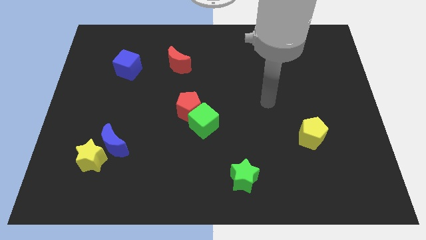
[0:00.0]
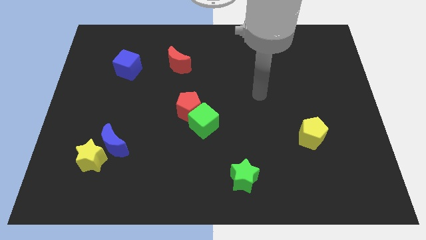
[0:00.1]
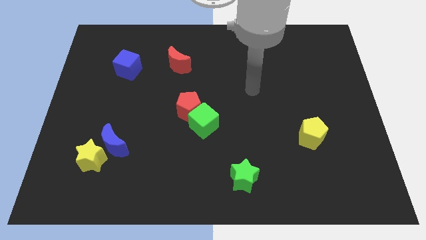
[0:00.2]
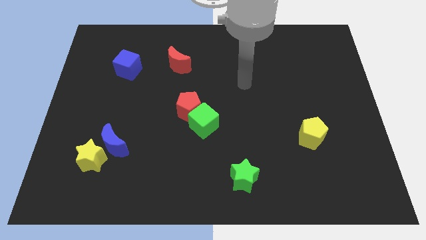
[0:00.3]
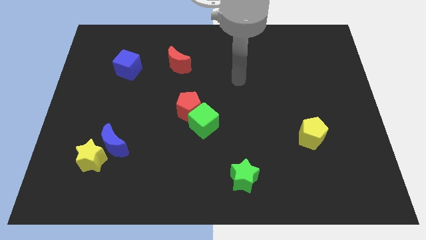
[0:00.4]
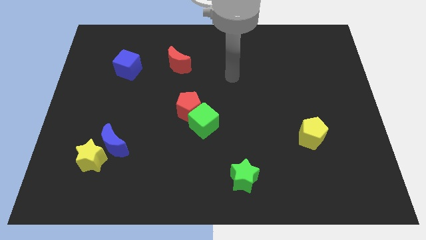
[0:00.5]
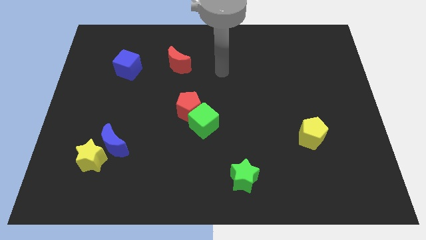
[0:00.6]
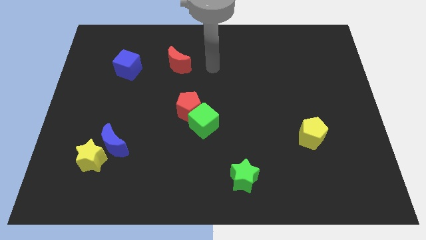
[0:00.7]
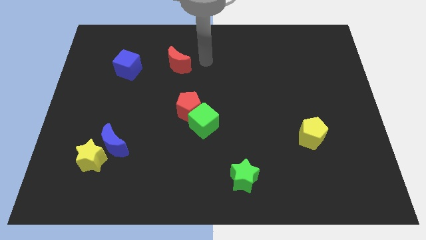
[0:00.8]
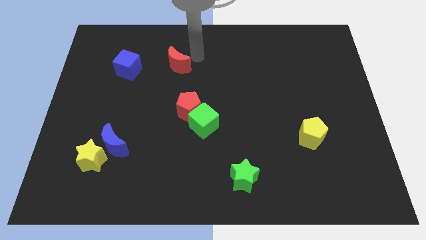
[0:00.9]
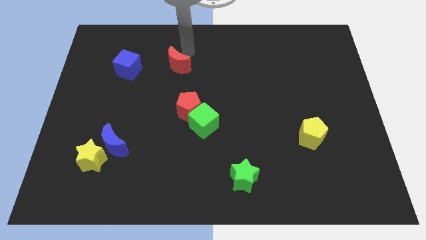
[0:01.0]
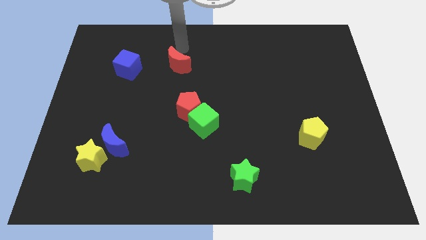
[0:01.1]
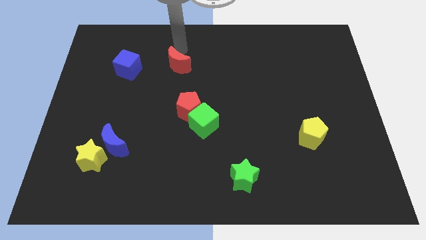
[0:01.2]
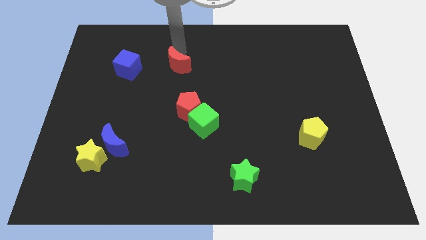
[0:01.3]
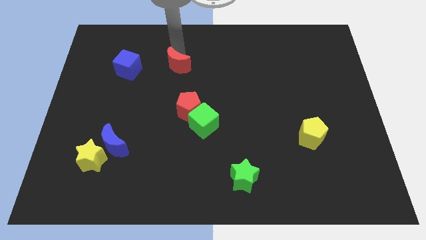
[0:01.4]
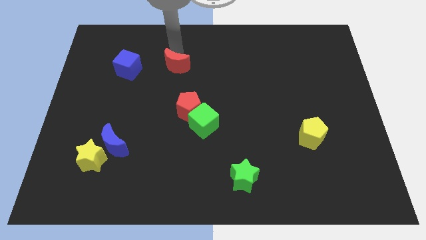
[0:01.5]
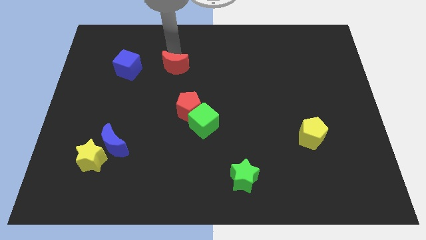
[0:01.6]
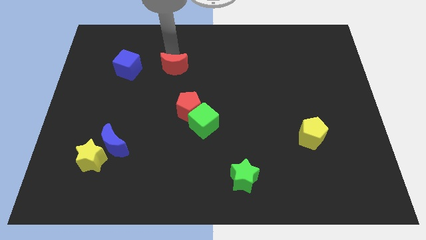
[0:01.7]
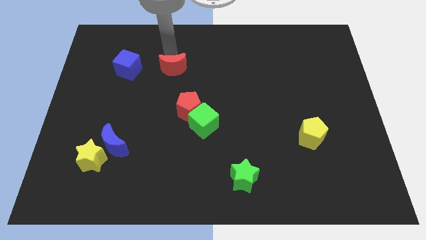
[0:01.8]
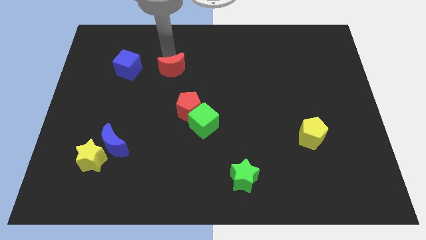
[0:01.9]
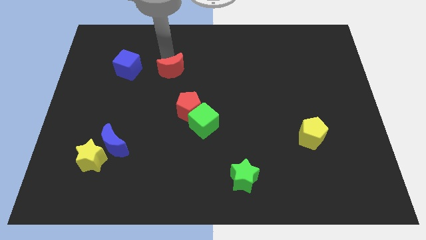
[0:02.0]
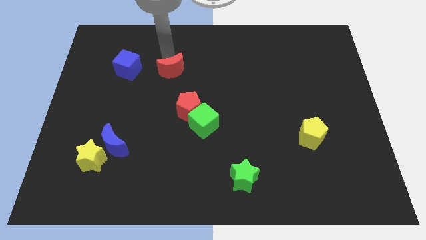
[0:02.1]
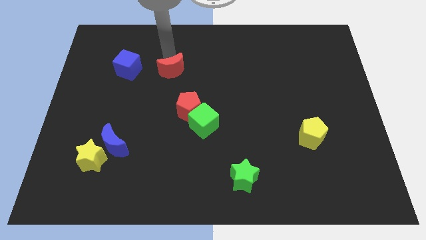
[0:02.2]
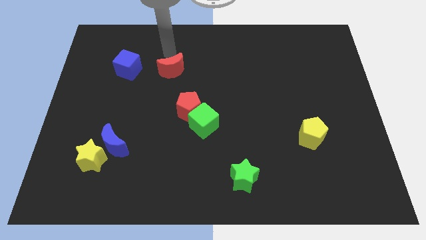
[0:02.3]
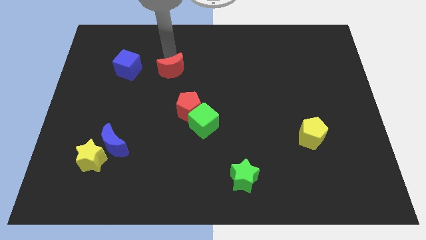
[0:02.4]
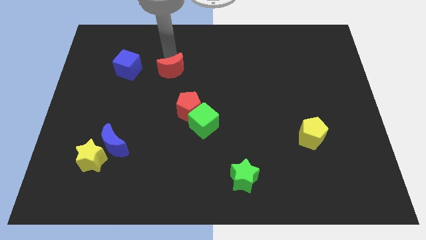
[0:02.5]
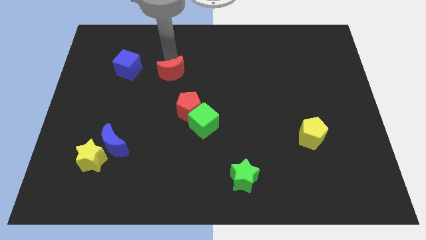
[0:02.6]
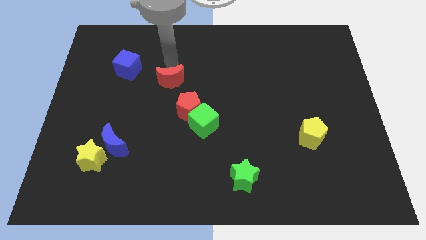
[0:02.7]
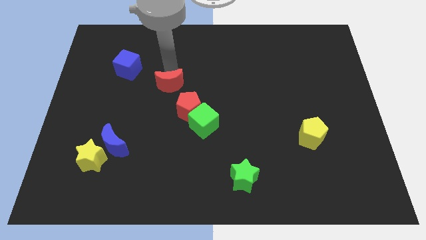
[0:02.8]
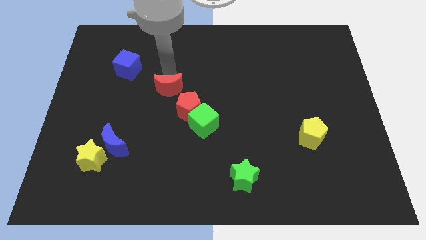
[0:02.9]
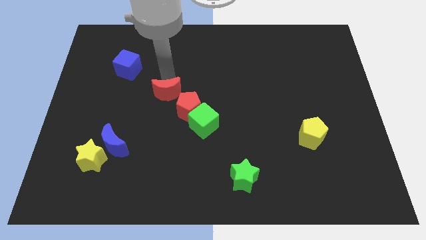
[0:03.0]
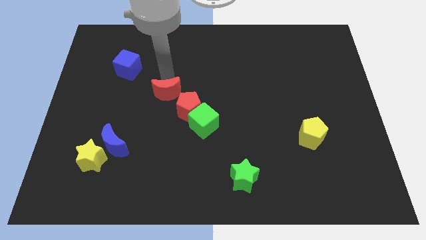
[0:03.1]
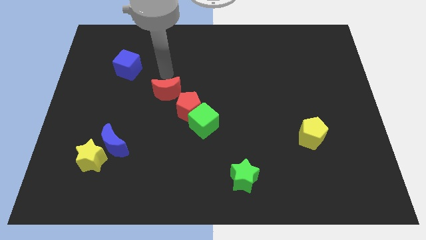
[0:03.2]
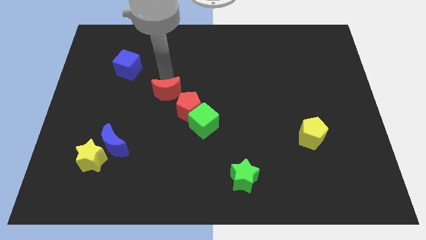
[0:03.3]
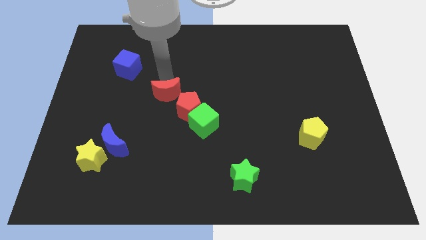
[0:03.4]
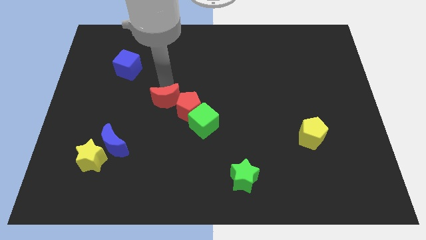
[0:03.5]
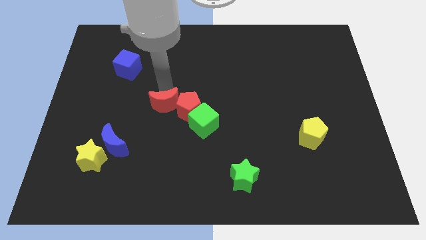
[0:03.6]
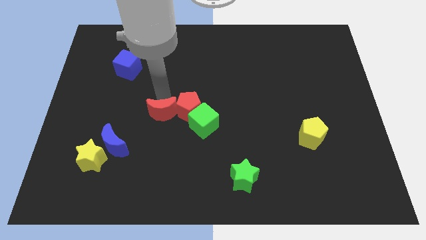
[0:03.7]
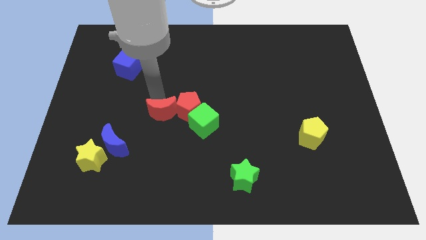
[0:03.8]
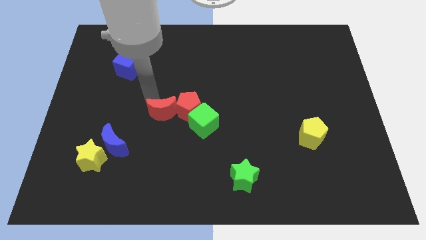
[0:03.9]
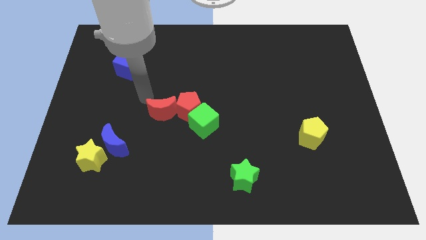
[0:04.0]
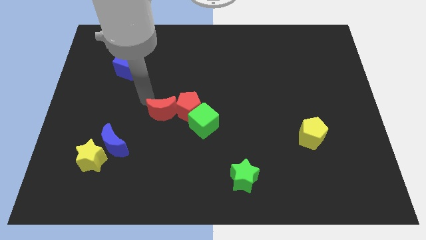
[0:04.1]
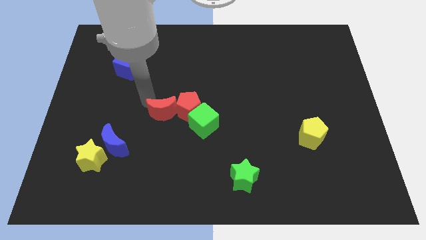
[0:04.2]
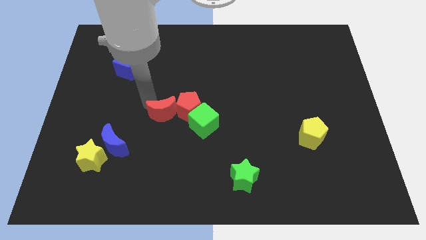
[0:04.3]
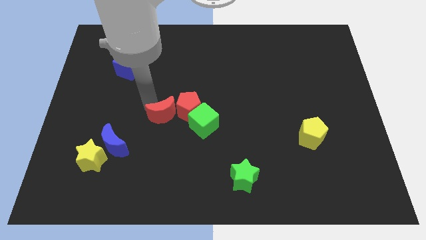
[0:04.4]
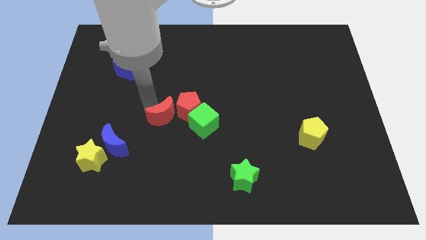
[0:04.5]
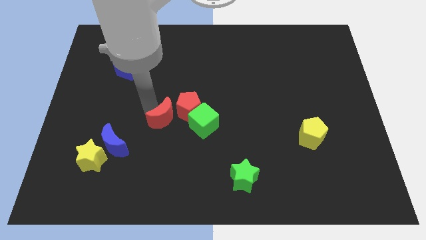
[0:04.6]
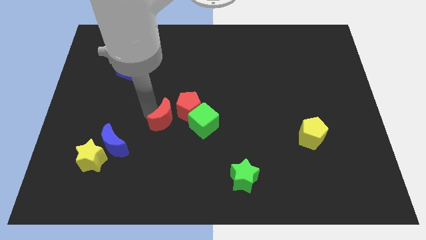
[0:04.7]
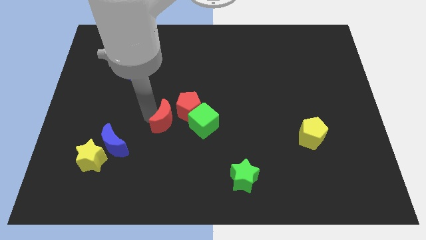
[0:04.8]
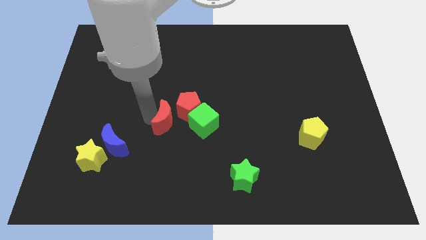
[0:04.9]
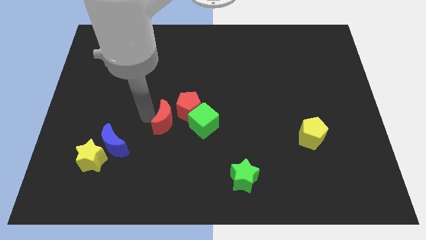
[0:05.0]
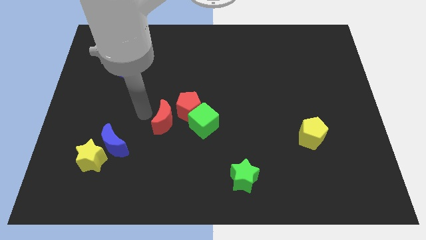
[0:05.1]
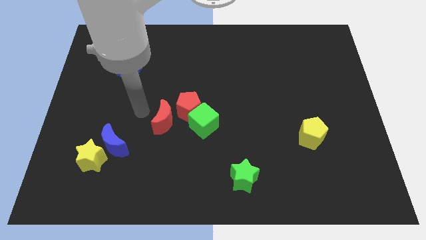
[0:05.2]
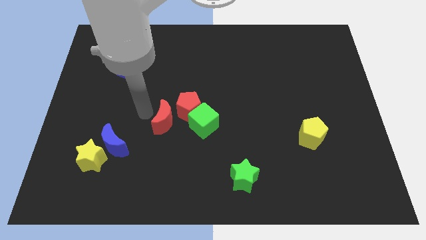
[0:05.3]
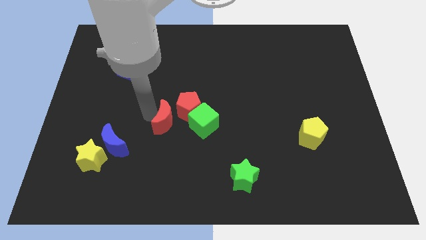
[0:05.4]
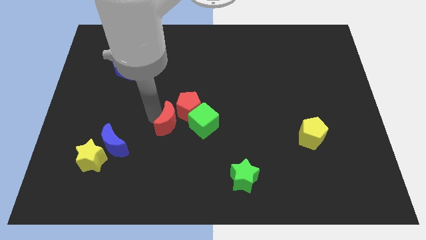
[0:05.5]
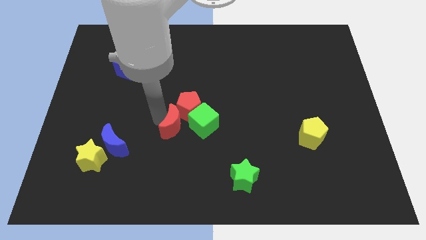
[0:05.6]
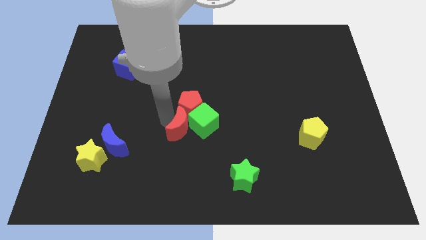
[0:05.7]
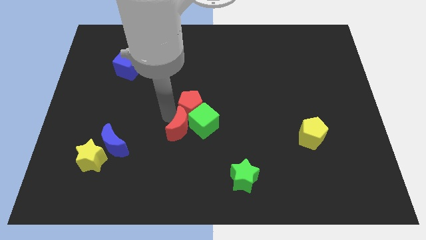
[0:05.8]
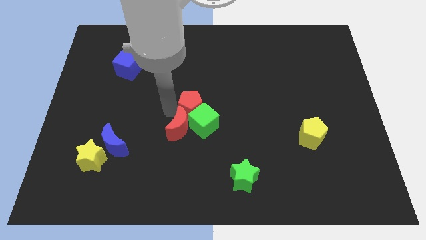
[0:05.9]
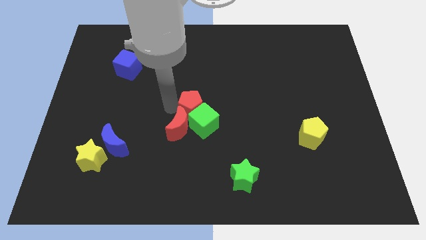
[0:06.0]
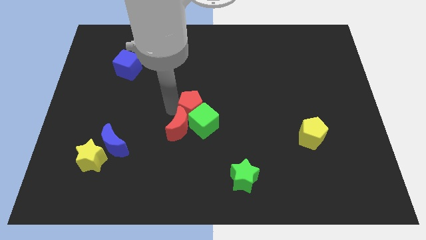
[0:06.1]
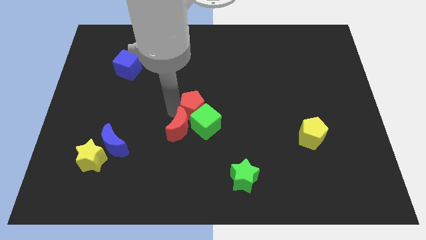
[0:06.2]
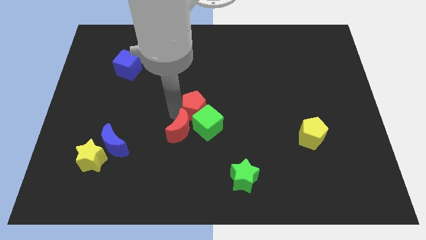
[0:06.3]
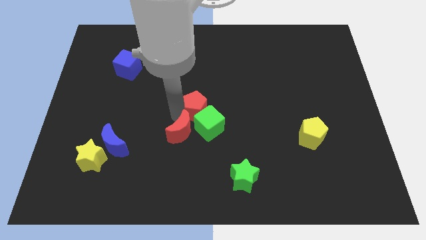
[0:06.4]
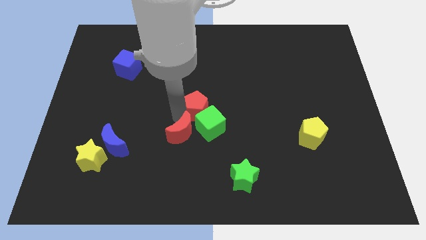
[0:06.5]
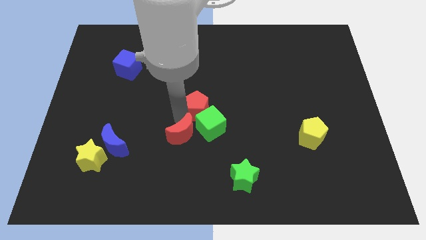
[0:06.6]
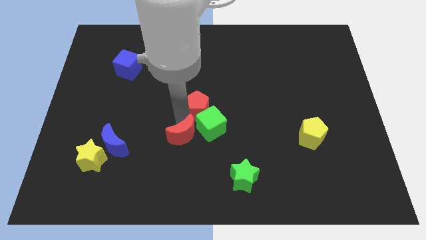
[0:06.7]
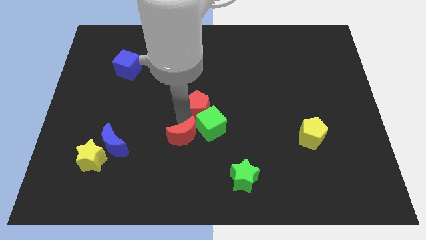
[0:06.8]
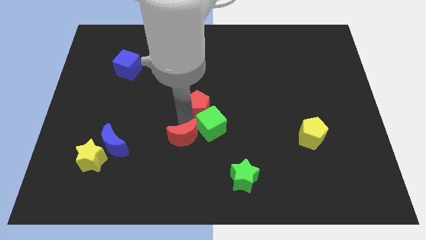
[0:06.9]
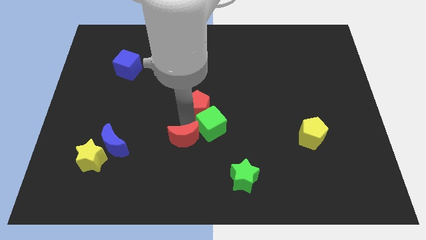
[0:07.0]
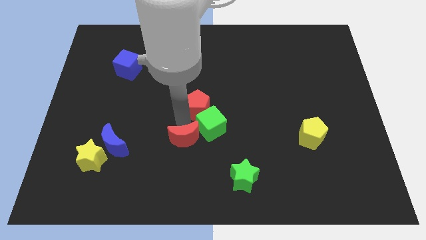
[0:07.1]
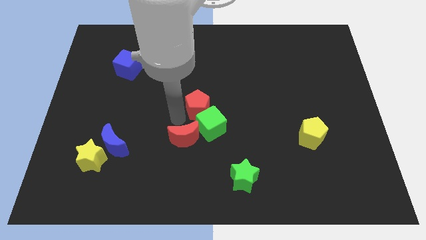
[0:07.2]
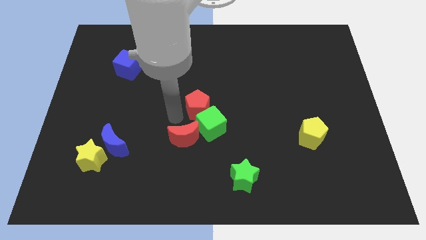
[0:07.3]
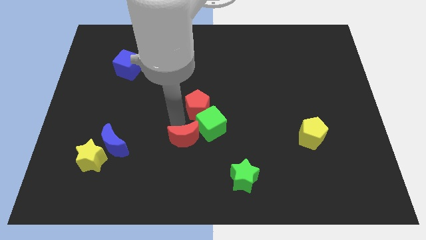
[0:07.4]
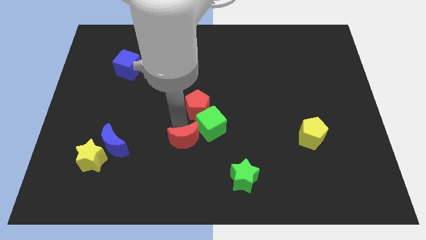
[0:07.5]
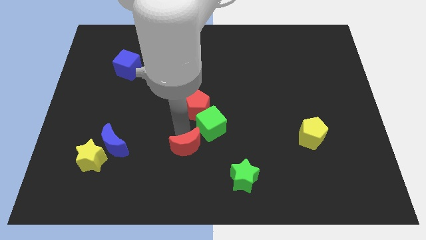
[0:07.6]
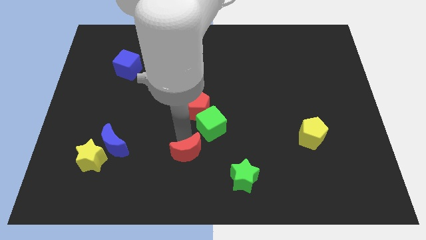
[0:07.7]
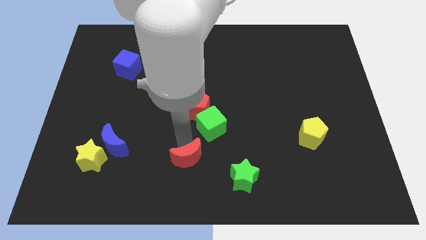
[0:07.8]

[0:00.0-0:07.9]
put the red moon to the bottom side

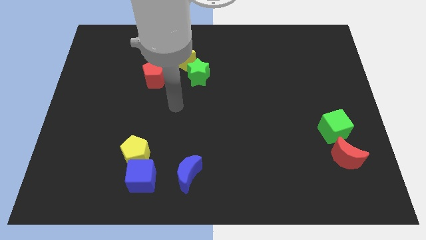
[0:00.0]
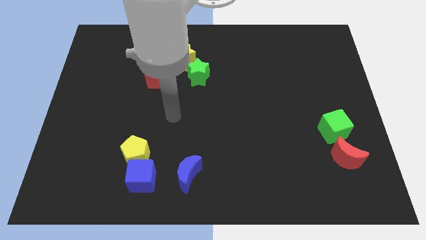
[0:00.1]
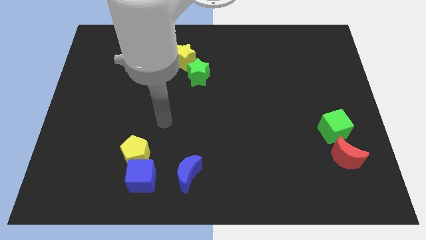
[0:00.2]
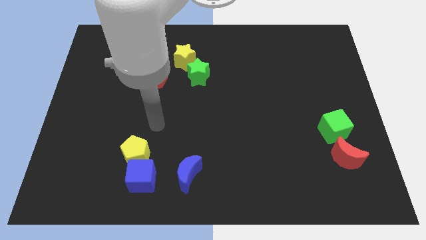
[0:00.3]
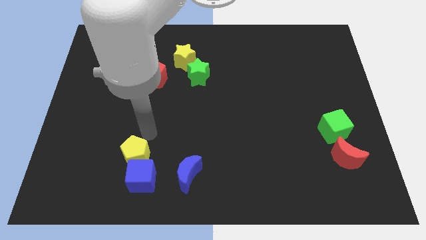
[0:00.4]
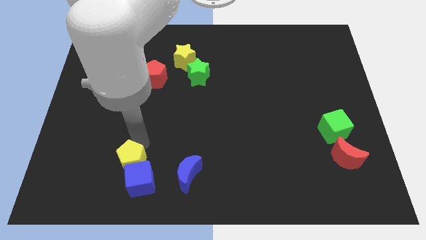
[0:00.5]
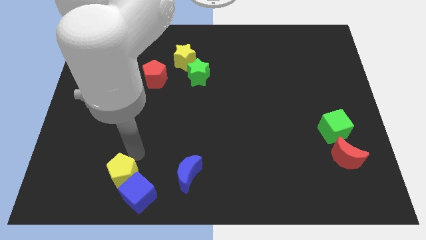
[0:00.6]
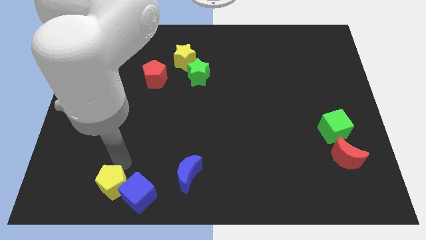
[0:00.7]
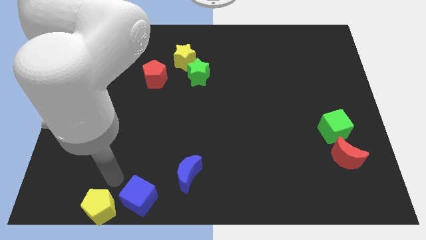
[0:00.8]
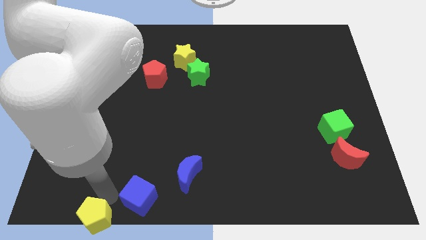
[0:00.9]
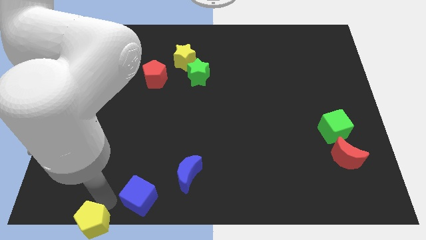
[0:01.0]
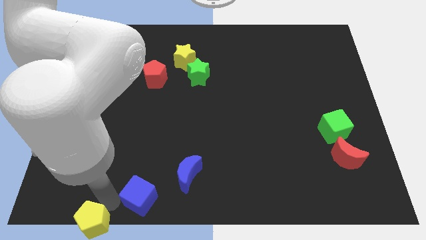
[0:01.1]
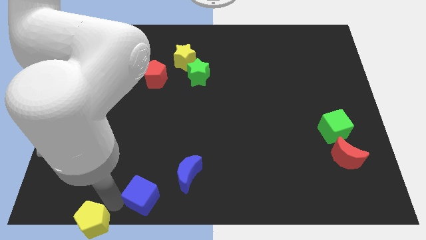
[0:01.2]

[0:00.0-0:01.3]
put the blue cube to the bottom
